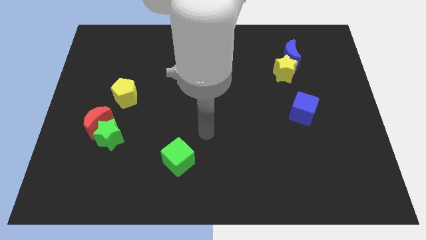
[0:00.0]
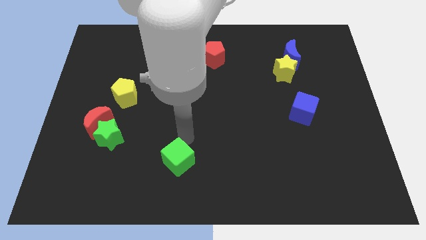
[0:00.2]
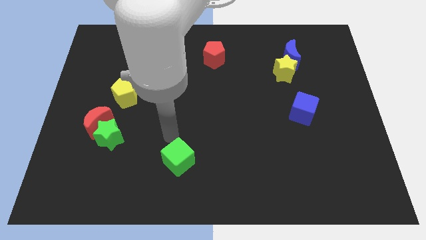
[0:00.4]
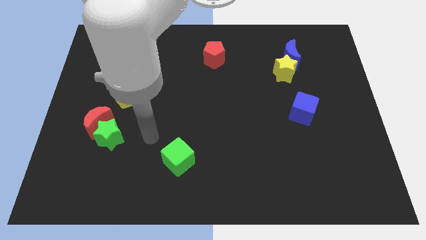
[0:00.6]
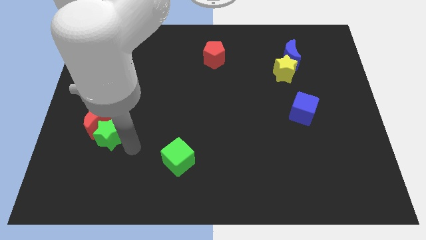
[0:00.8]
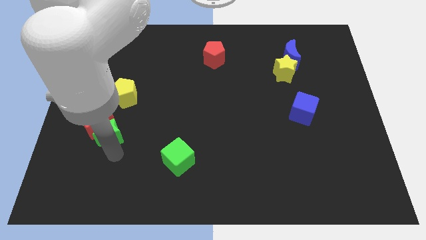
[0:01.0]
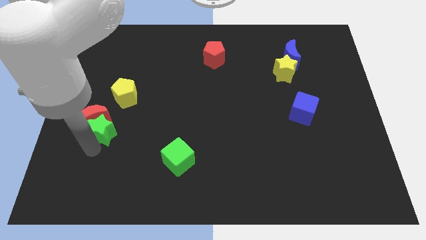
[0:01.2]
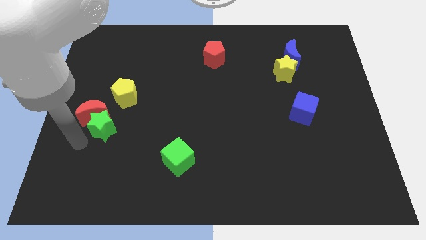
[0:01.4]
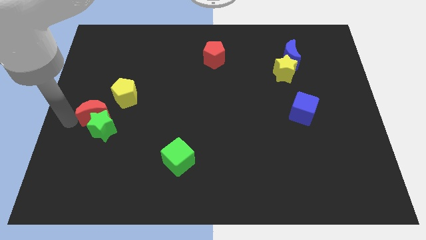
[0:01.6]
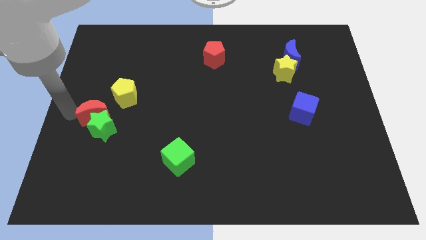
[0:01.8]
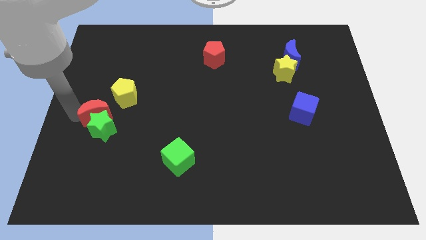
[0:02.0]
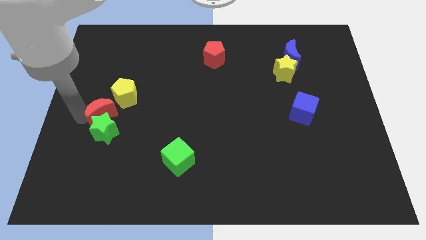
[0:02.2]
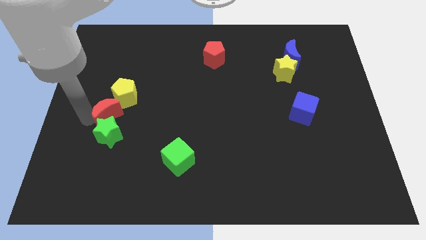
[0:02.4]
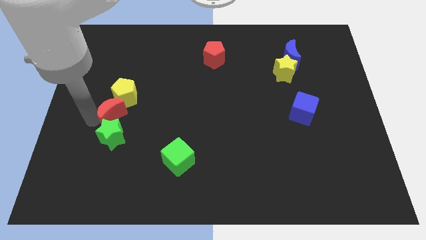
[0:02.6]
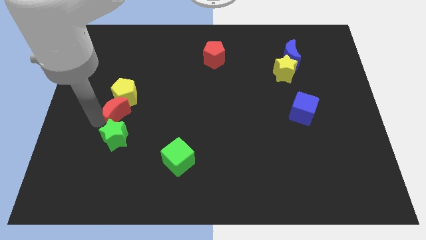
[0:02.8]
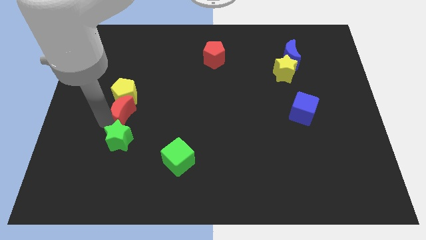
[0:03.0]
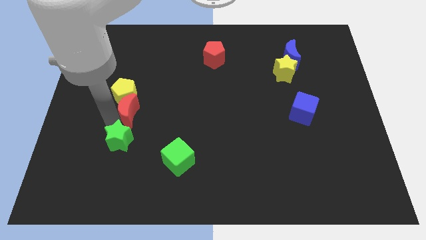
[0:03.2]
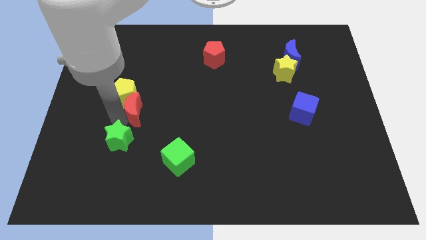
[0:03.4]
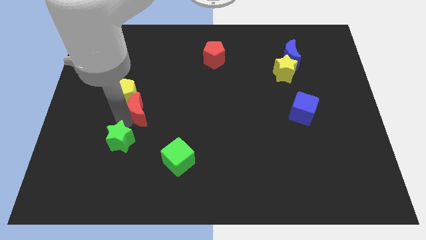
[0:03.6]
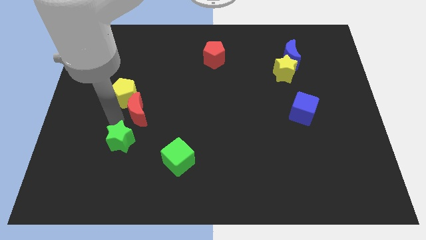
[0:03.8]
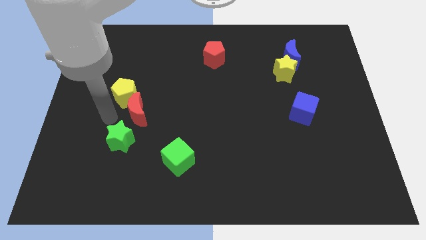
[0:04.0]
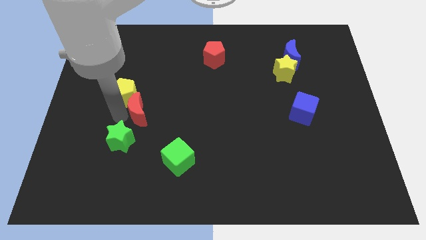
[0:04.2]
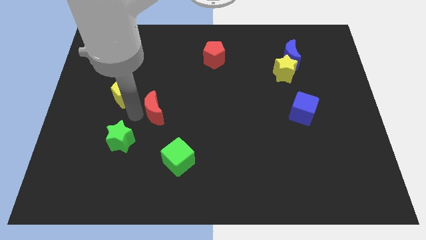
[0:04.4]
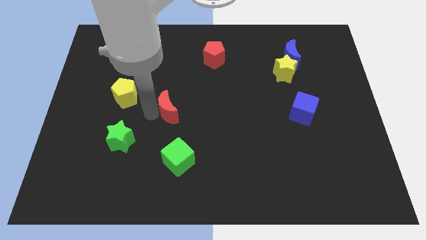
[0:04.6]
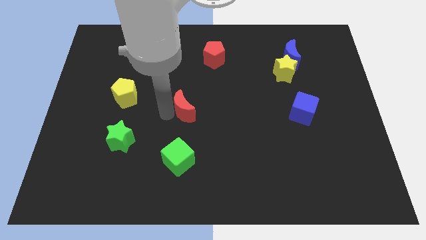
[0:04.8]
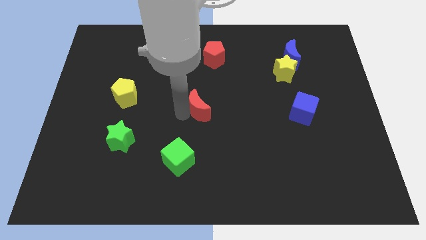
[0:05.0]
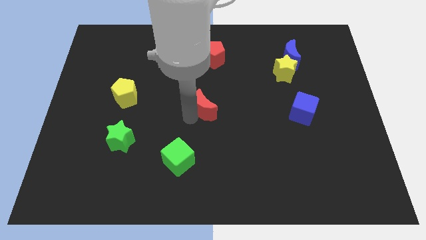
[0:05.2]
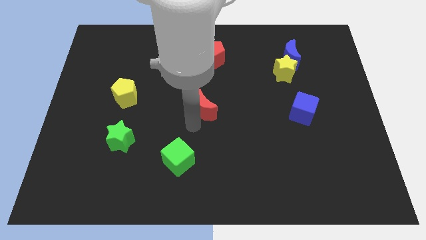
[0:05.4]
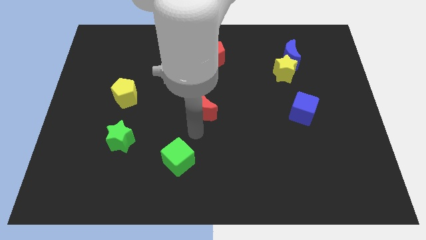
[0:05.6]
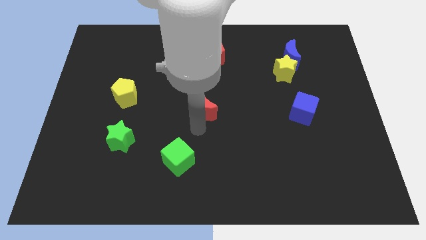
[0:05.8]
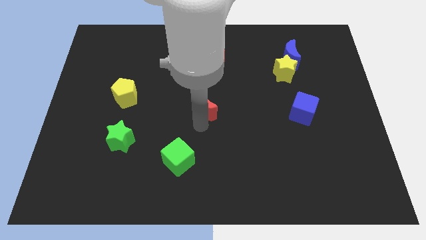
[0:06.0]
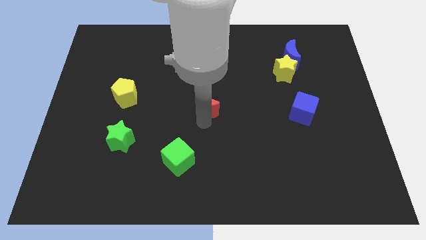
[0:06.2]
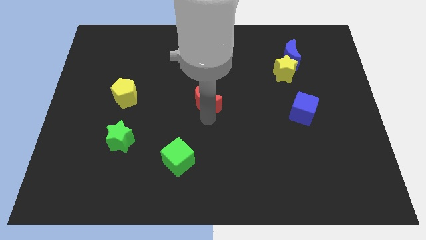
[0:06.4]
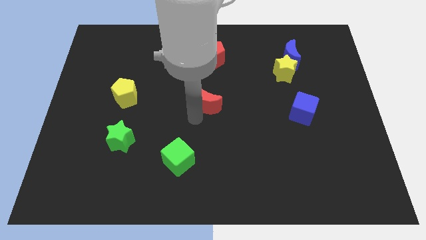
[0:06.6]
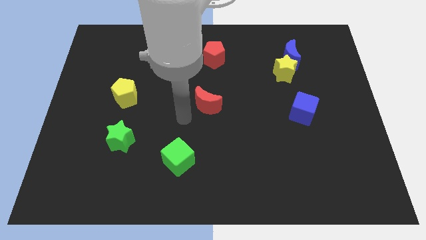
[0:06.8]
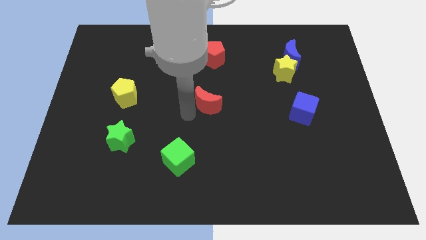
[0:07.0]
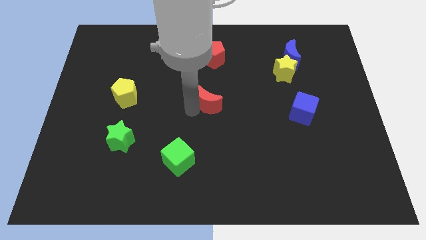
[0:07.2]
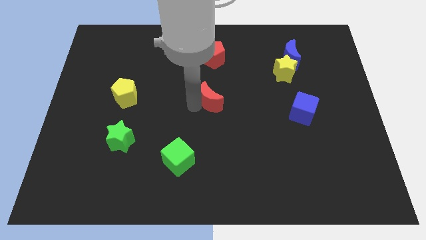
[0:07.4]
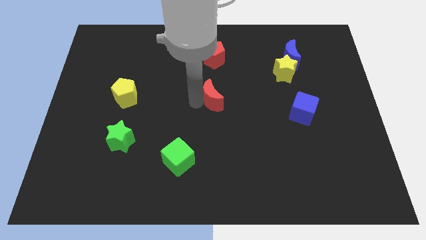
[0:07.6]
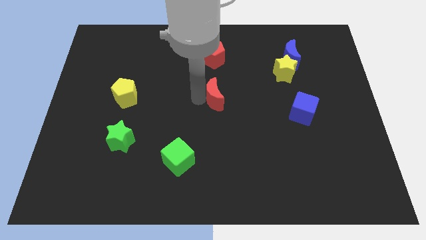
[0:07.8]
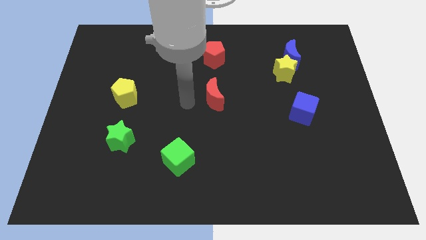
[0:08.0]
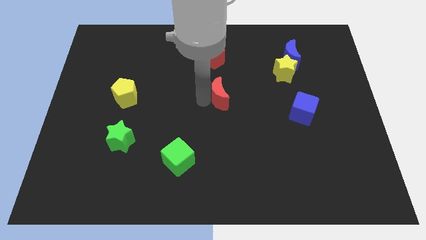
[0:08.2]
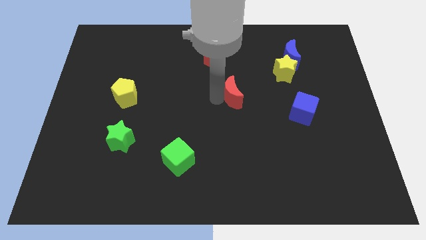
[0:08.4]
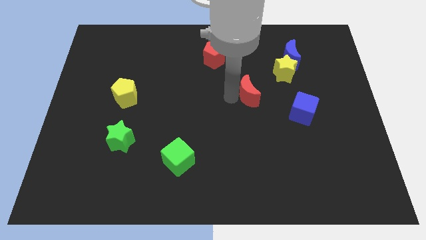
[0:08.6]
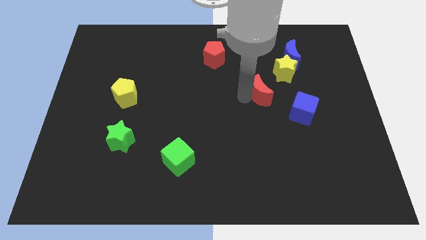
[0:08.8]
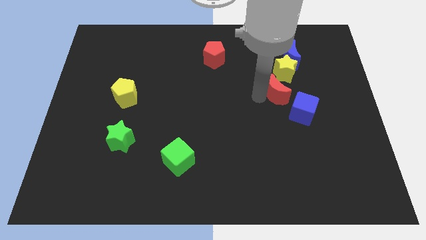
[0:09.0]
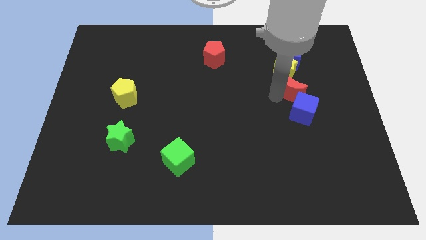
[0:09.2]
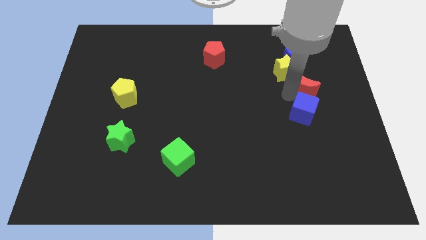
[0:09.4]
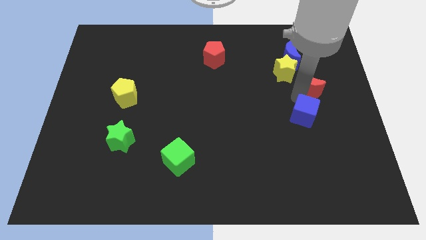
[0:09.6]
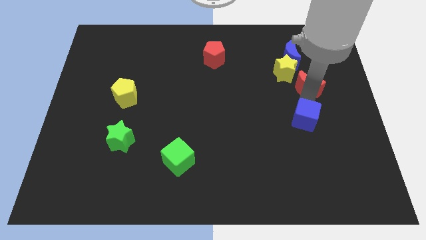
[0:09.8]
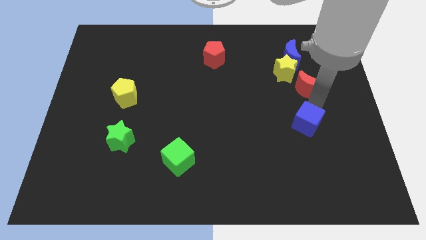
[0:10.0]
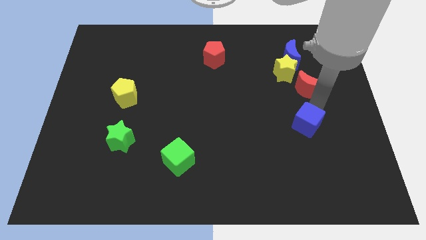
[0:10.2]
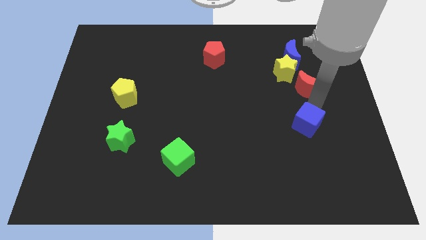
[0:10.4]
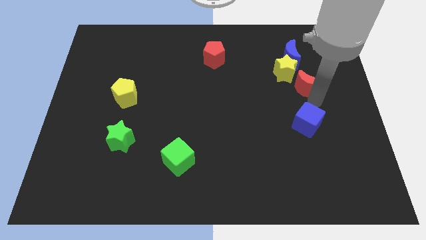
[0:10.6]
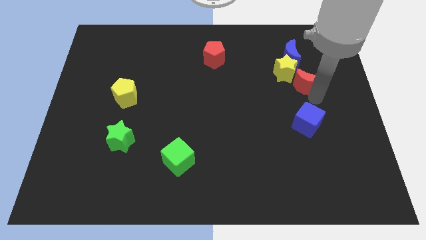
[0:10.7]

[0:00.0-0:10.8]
push the red moon to the right side of the yellow star

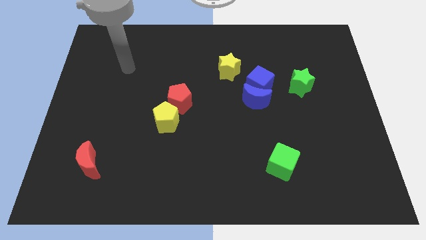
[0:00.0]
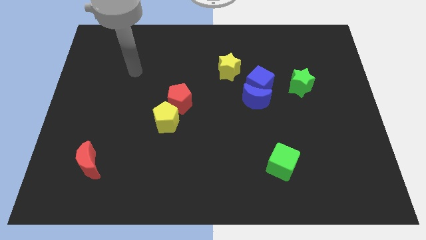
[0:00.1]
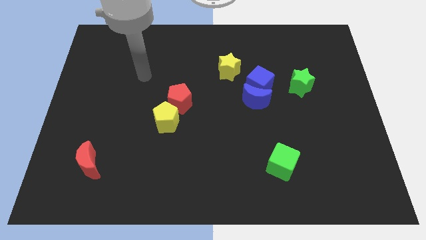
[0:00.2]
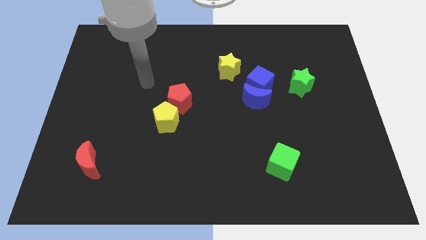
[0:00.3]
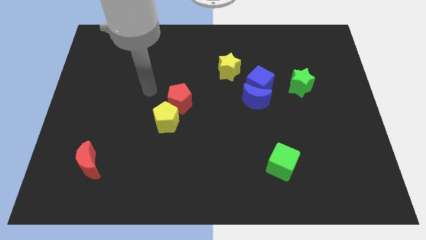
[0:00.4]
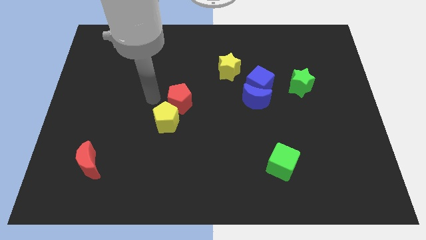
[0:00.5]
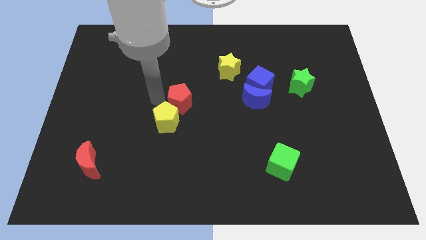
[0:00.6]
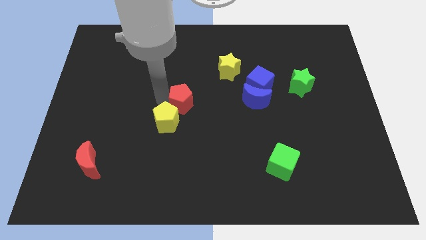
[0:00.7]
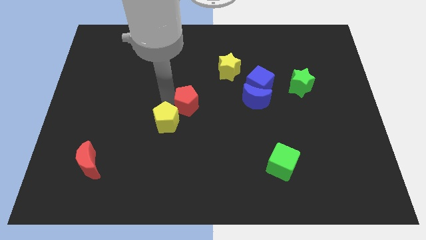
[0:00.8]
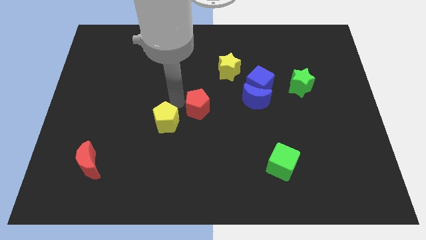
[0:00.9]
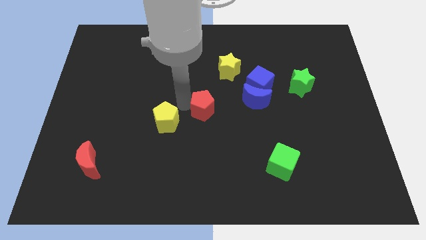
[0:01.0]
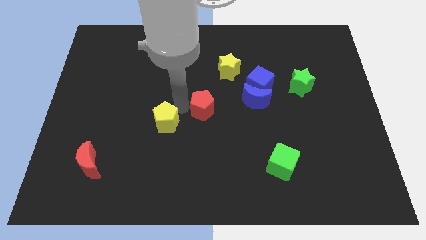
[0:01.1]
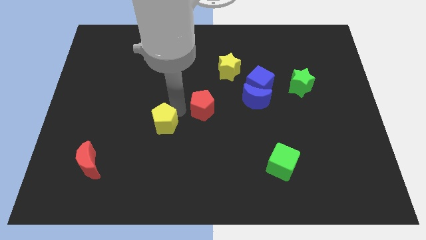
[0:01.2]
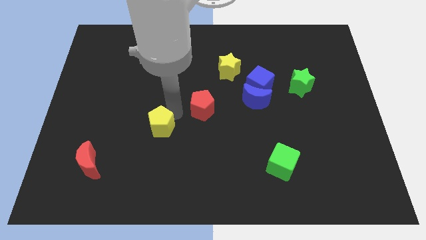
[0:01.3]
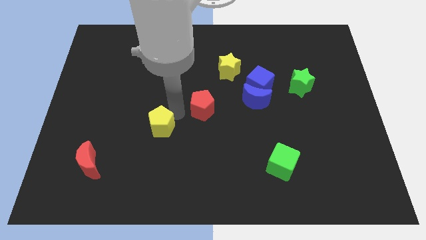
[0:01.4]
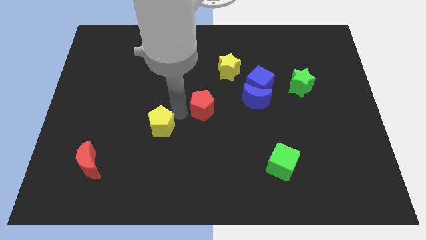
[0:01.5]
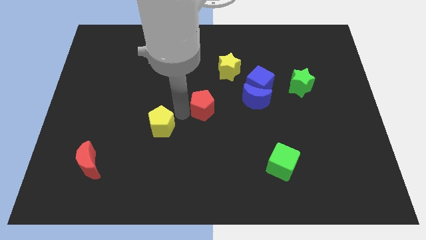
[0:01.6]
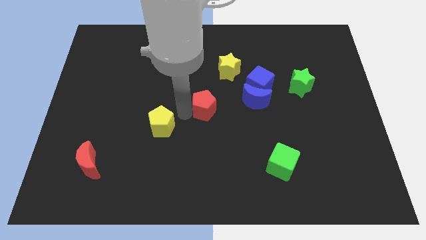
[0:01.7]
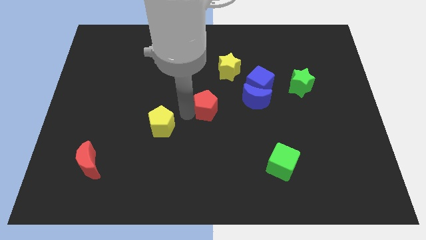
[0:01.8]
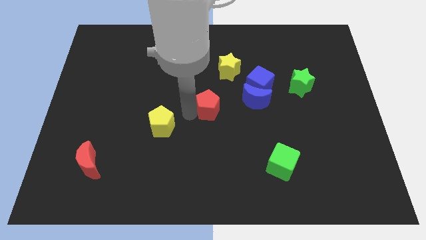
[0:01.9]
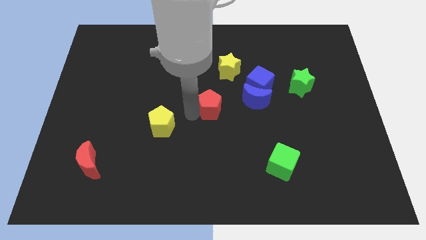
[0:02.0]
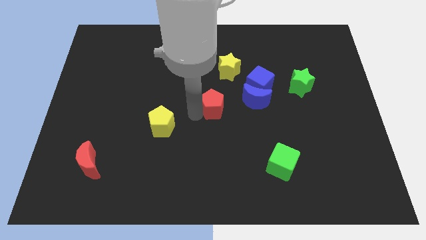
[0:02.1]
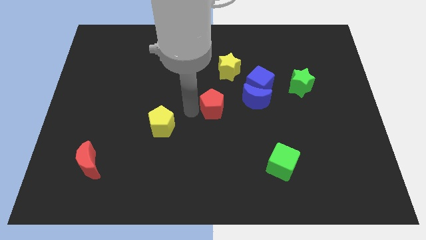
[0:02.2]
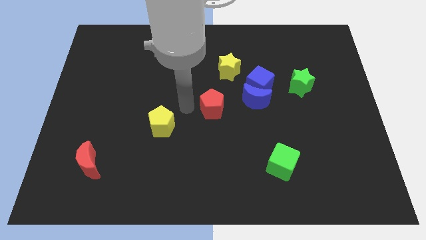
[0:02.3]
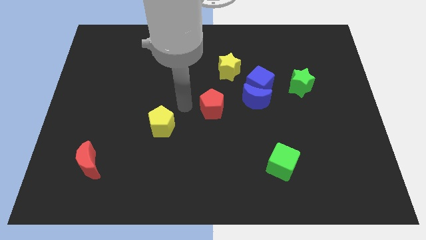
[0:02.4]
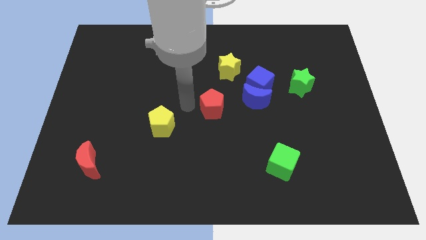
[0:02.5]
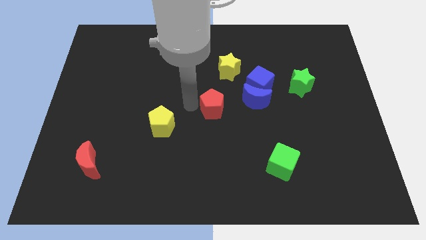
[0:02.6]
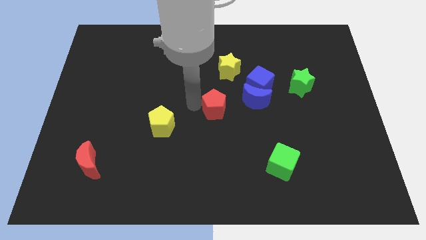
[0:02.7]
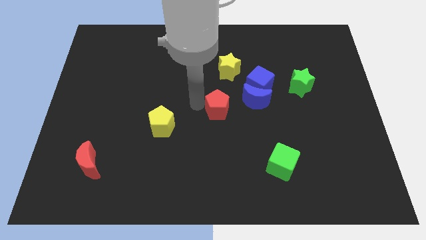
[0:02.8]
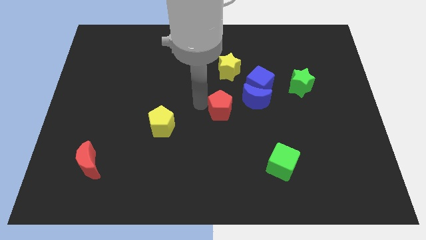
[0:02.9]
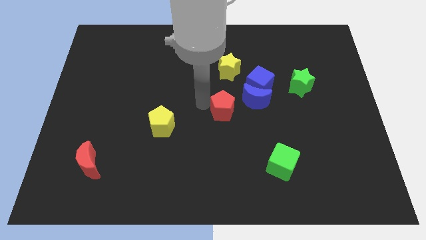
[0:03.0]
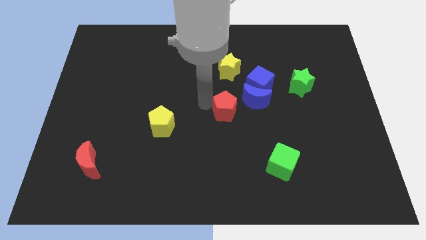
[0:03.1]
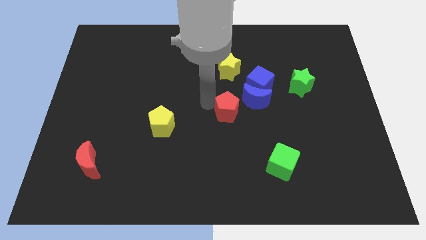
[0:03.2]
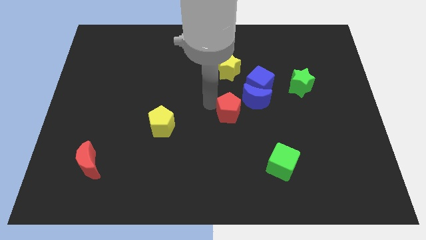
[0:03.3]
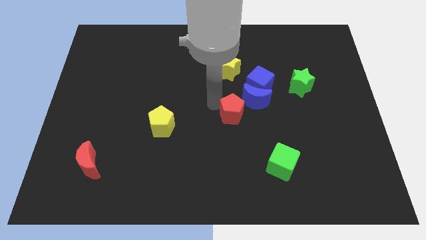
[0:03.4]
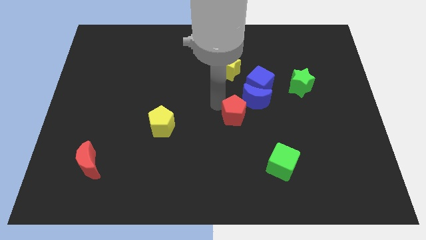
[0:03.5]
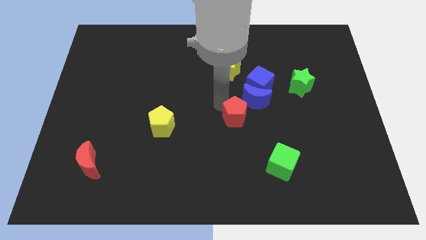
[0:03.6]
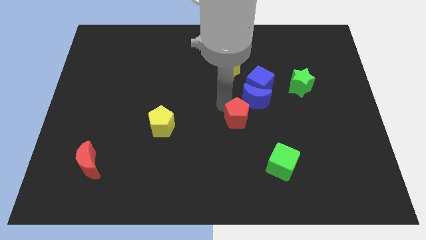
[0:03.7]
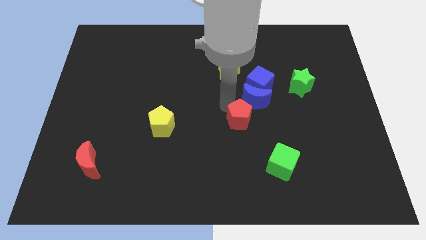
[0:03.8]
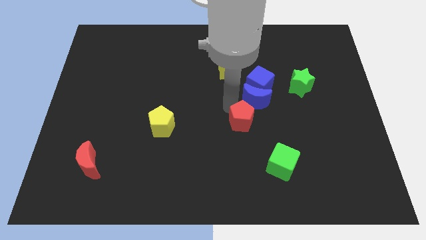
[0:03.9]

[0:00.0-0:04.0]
put the red pentagon below the blue cube
